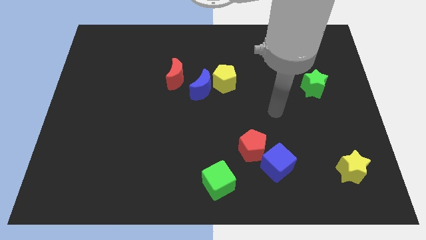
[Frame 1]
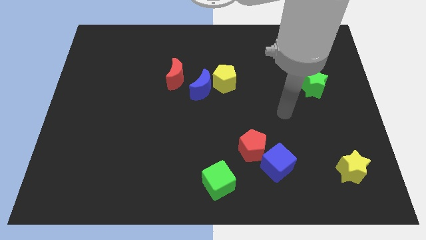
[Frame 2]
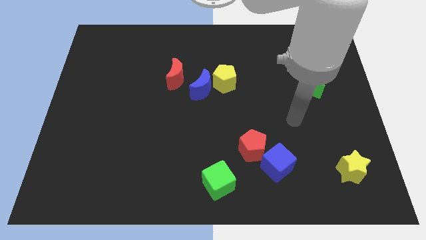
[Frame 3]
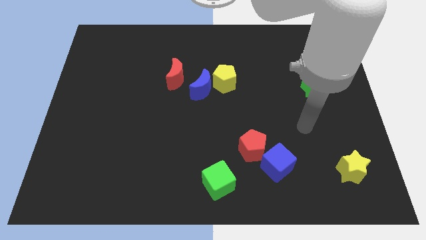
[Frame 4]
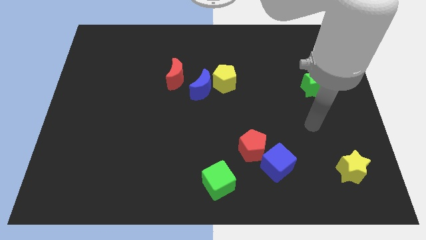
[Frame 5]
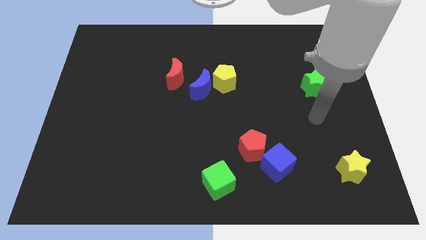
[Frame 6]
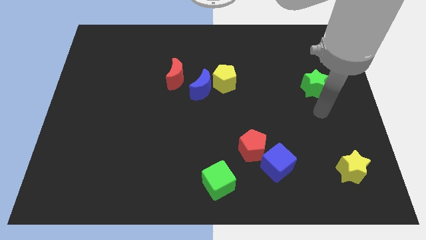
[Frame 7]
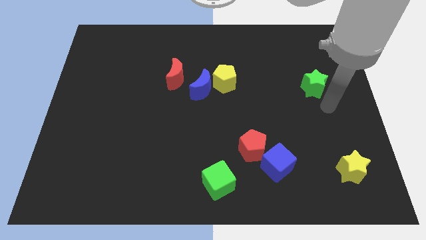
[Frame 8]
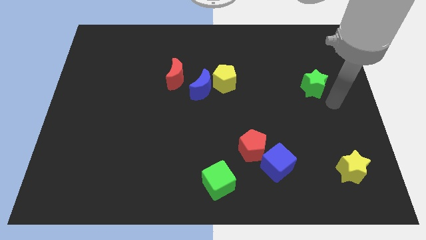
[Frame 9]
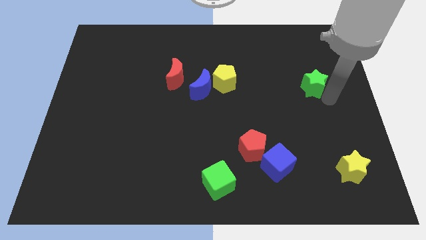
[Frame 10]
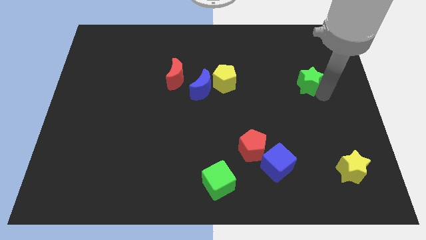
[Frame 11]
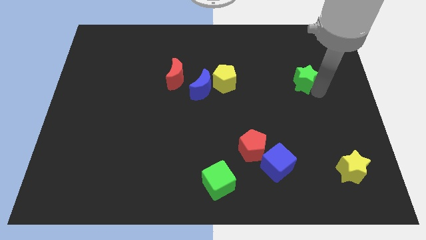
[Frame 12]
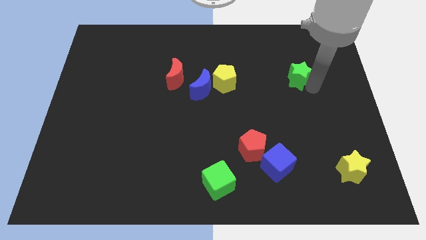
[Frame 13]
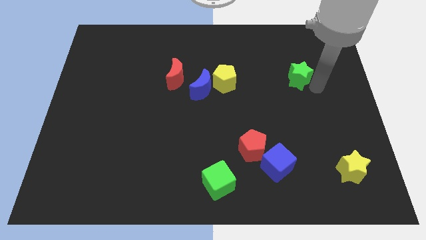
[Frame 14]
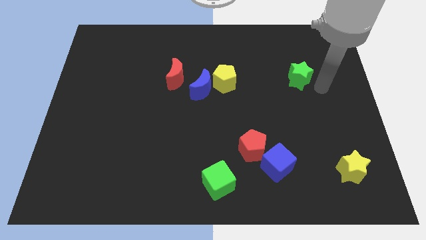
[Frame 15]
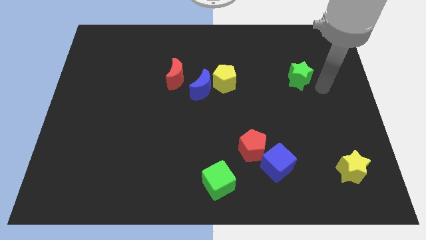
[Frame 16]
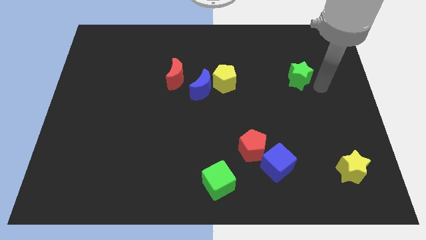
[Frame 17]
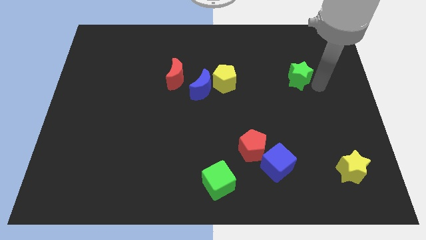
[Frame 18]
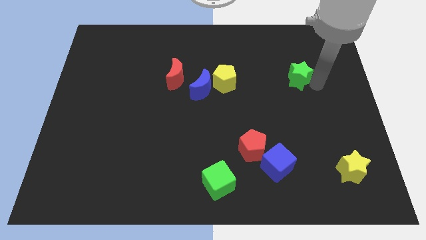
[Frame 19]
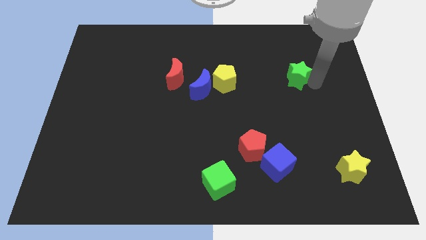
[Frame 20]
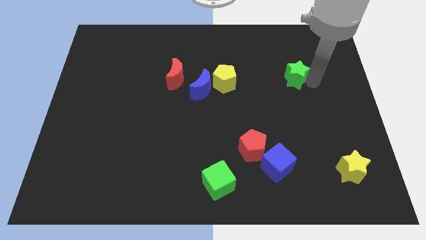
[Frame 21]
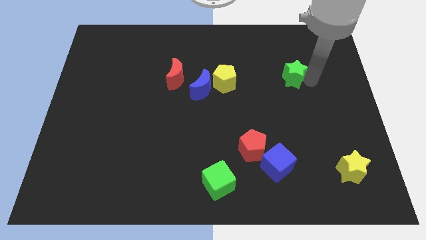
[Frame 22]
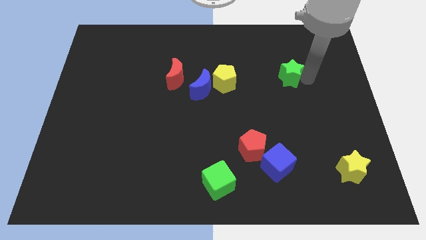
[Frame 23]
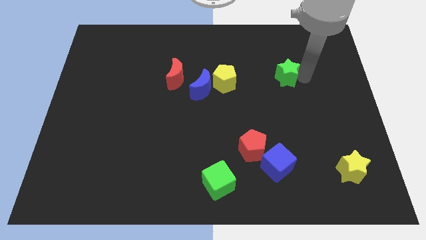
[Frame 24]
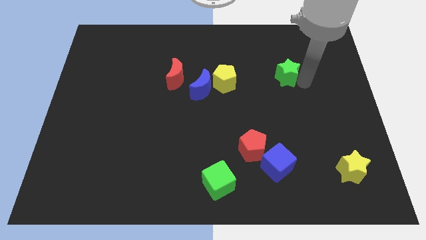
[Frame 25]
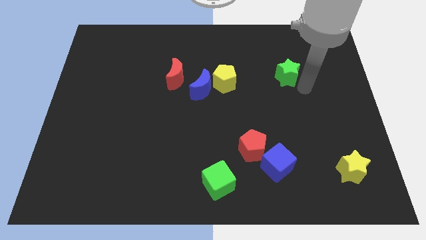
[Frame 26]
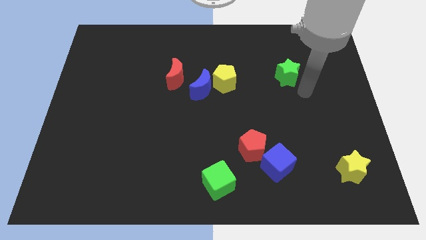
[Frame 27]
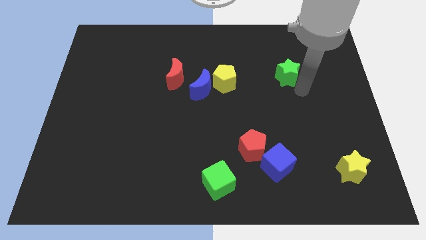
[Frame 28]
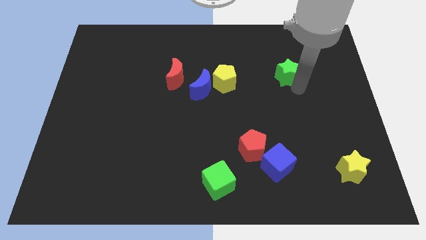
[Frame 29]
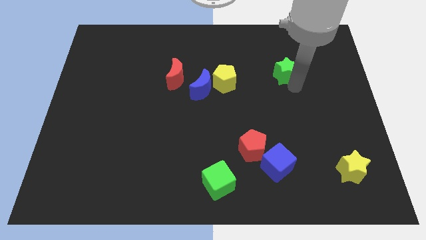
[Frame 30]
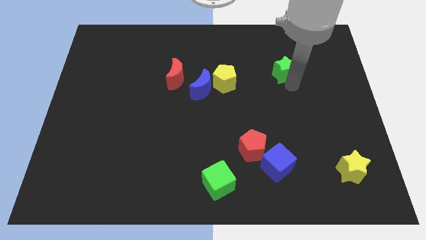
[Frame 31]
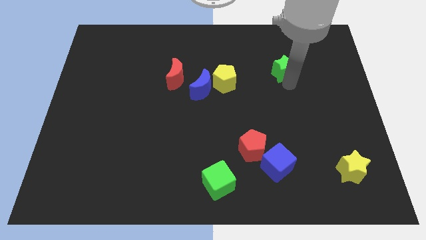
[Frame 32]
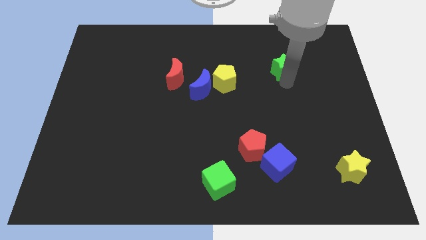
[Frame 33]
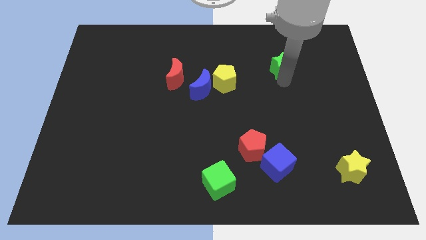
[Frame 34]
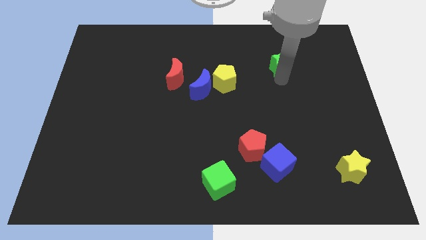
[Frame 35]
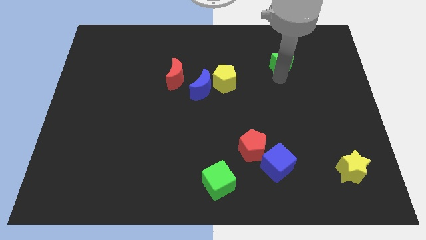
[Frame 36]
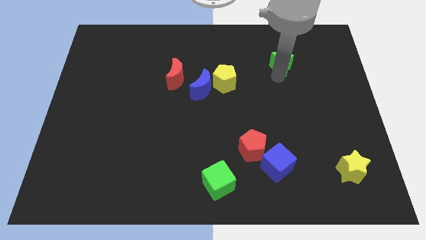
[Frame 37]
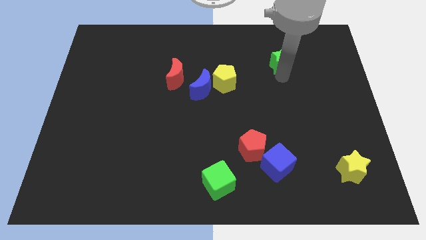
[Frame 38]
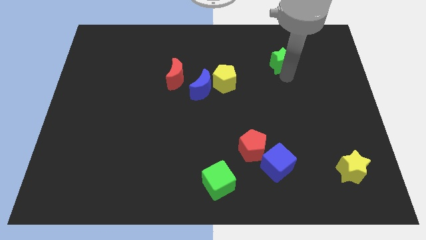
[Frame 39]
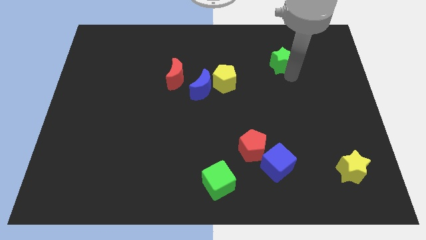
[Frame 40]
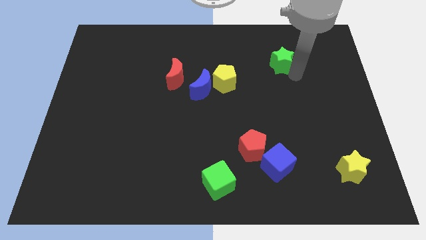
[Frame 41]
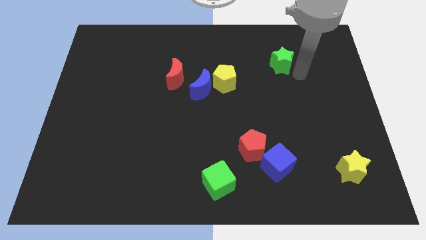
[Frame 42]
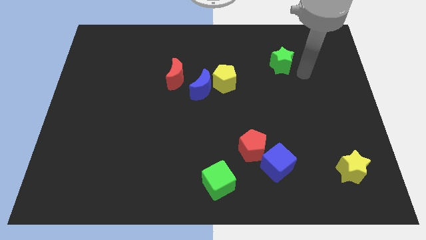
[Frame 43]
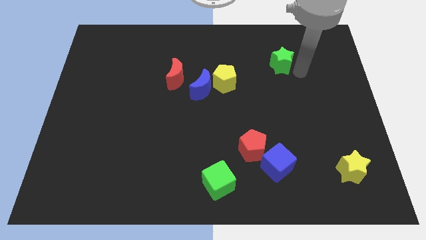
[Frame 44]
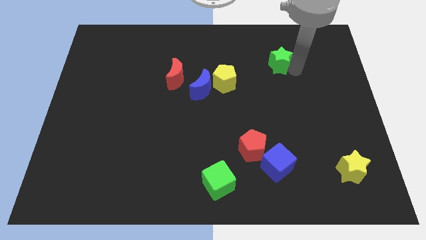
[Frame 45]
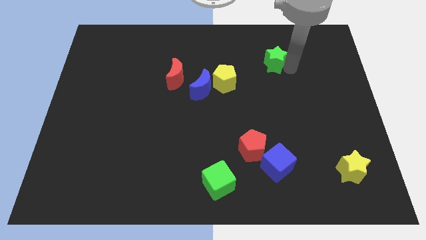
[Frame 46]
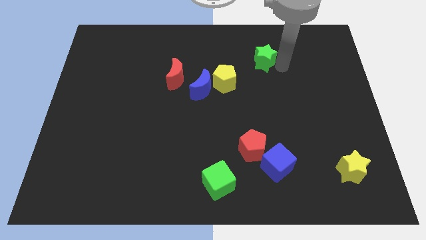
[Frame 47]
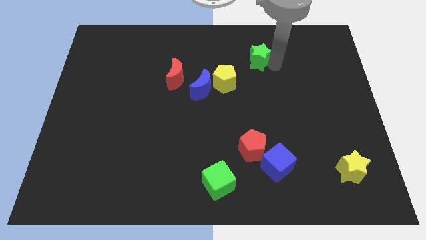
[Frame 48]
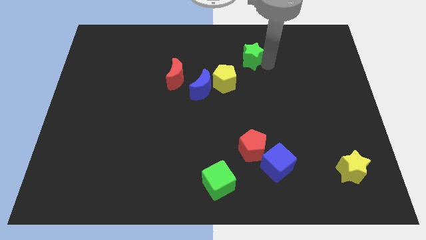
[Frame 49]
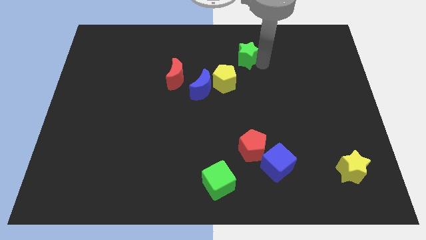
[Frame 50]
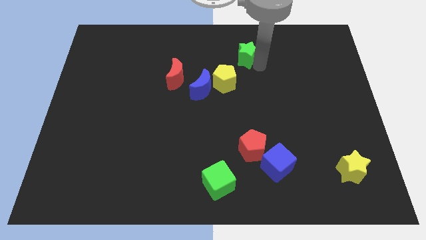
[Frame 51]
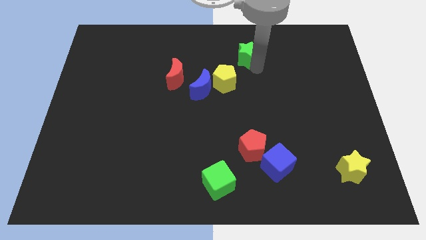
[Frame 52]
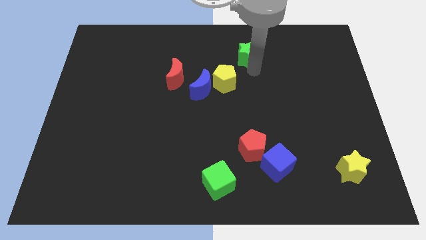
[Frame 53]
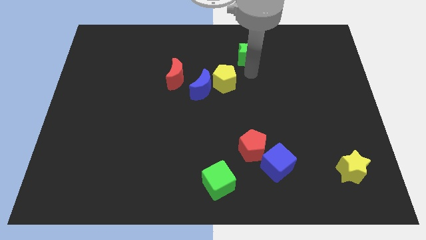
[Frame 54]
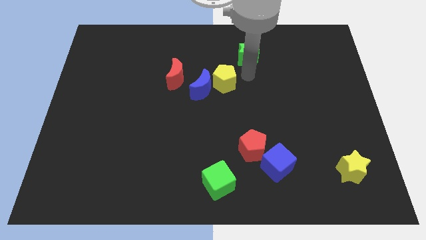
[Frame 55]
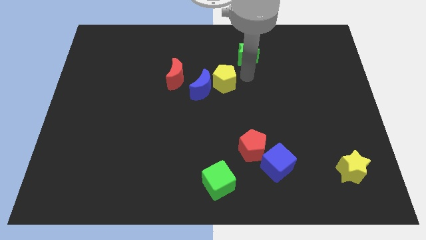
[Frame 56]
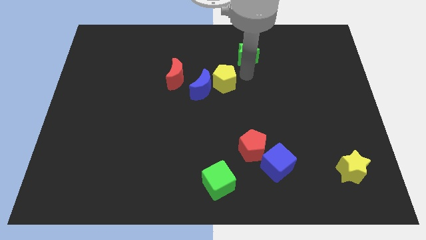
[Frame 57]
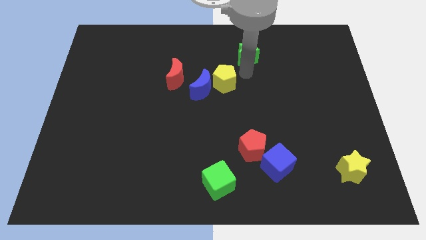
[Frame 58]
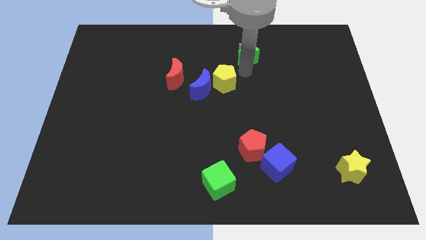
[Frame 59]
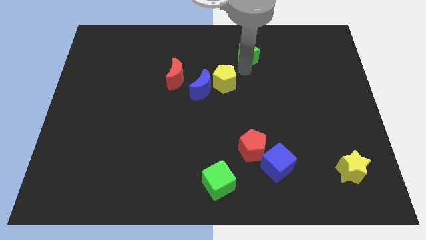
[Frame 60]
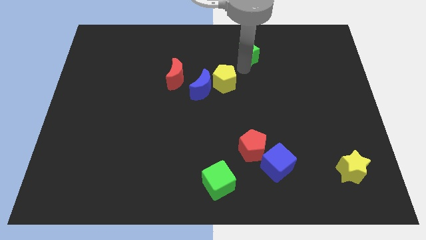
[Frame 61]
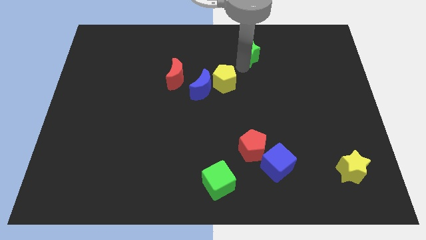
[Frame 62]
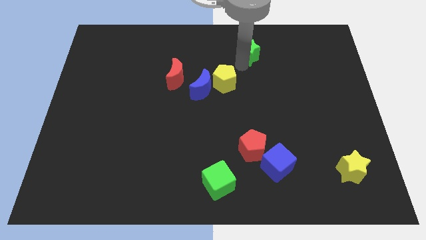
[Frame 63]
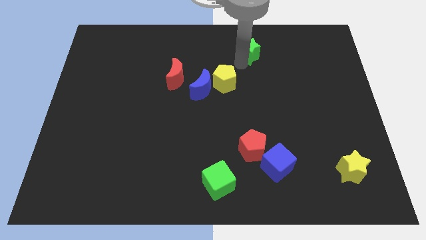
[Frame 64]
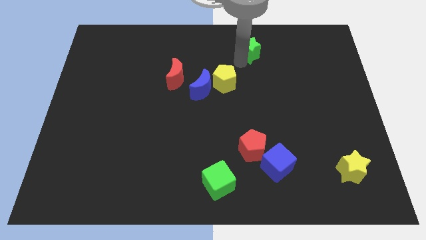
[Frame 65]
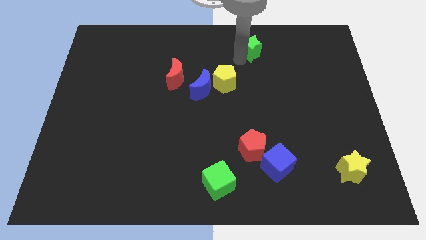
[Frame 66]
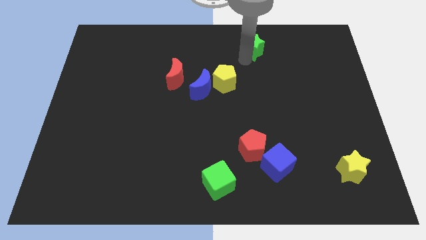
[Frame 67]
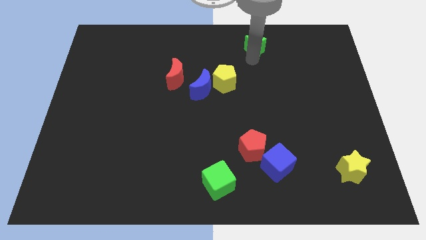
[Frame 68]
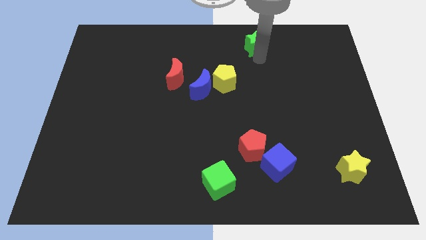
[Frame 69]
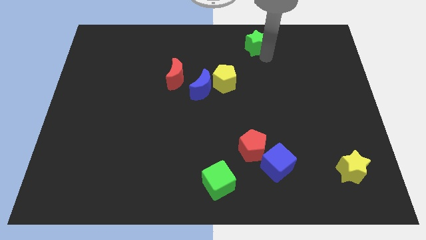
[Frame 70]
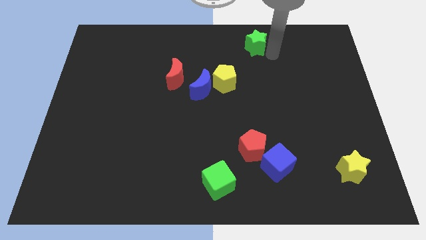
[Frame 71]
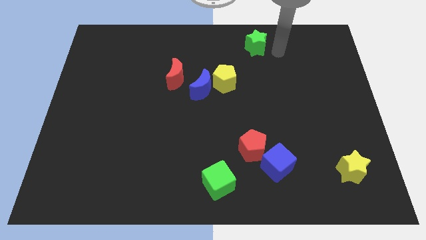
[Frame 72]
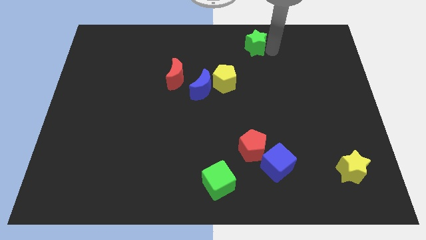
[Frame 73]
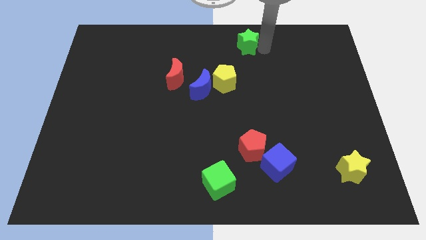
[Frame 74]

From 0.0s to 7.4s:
put the green star to the towards your base
